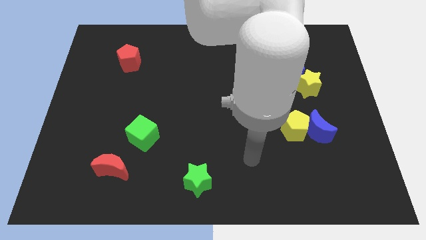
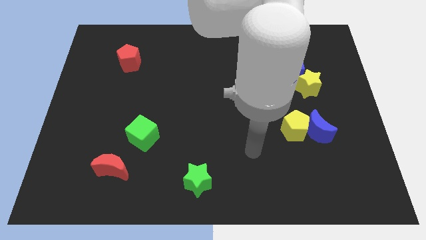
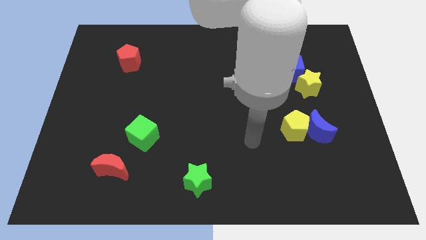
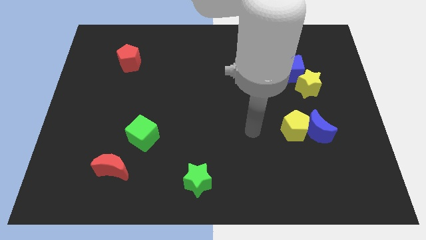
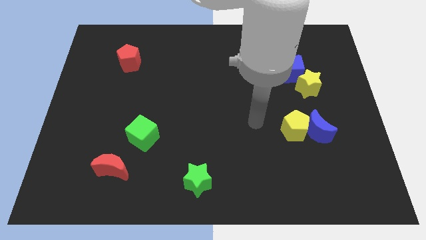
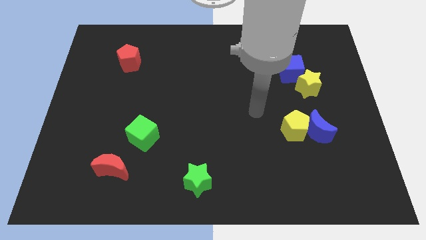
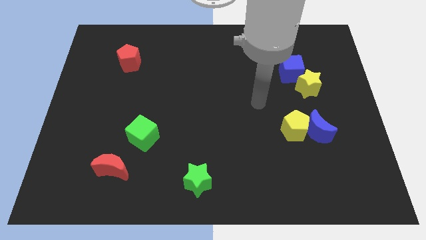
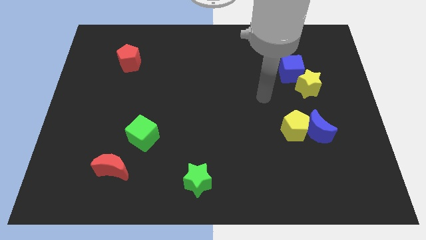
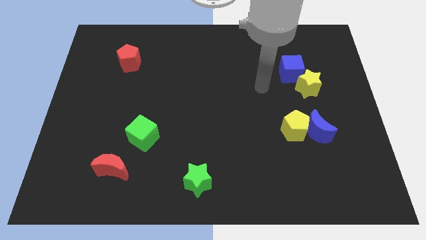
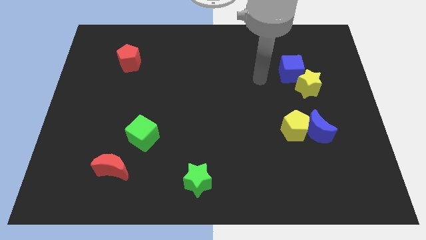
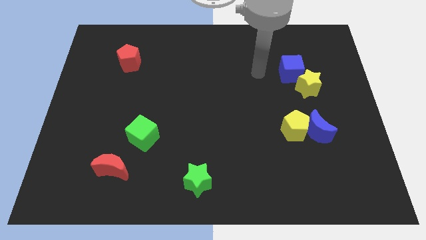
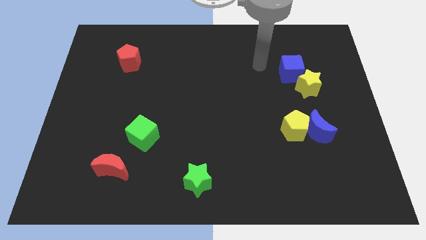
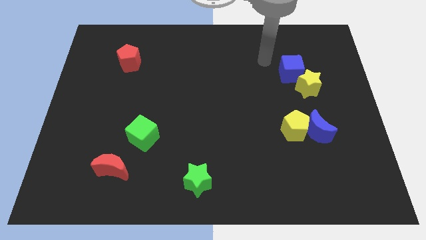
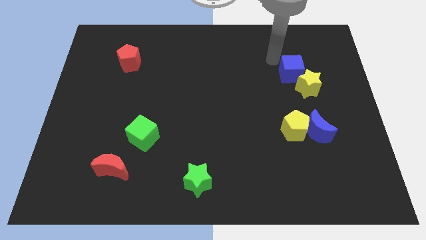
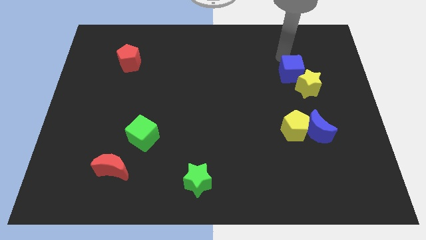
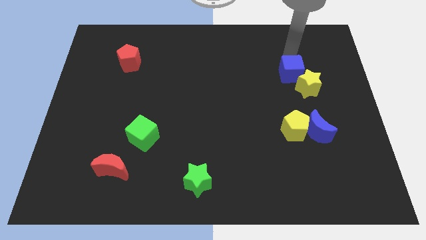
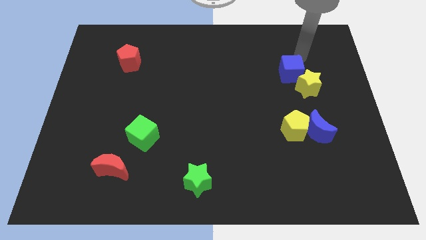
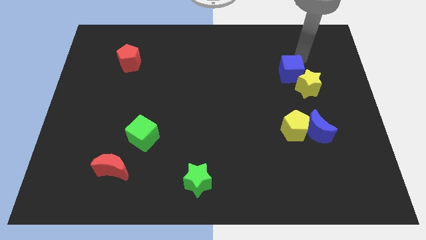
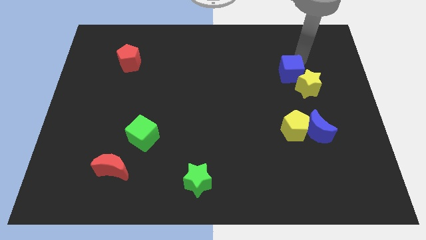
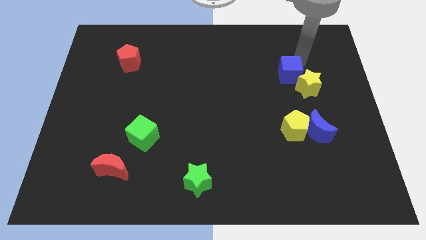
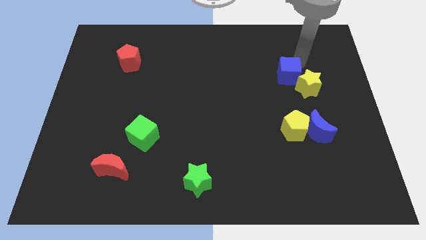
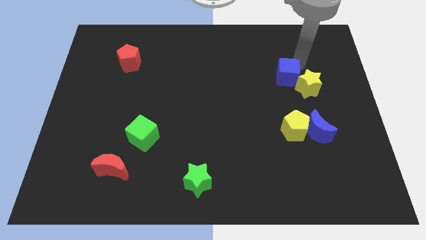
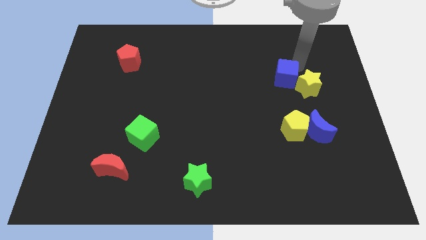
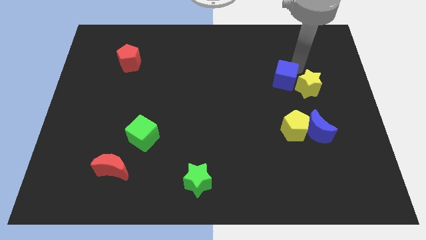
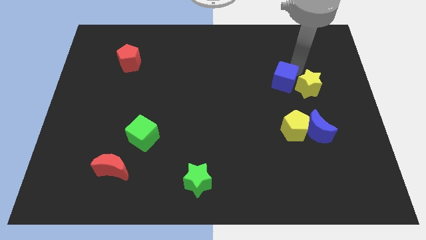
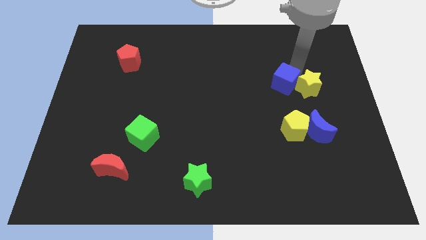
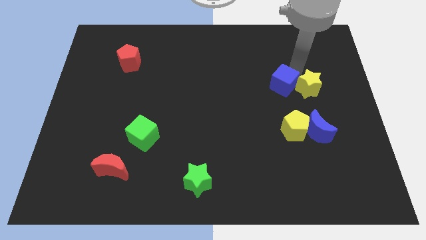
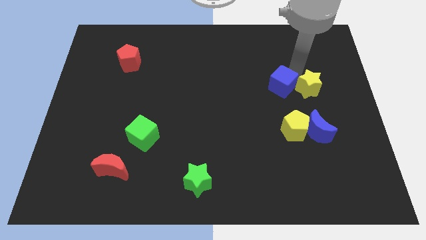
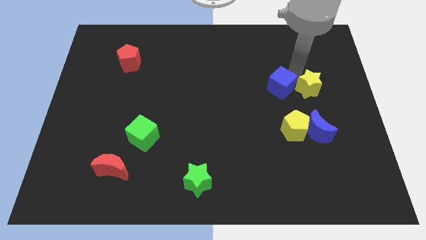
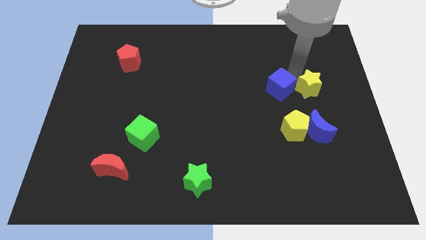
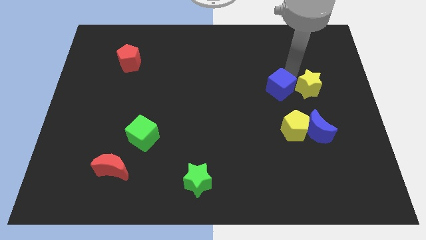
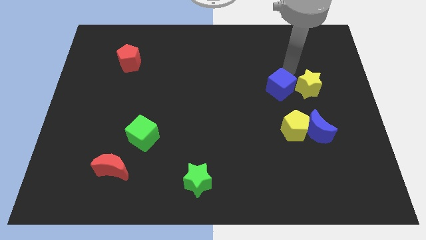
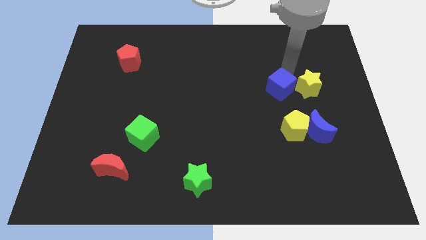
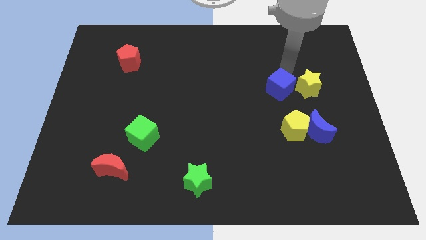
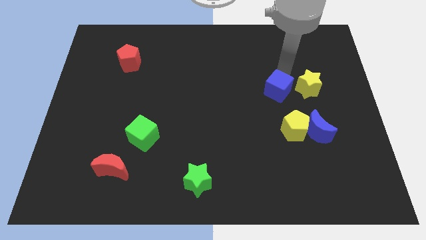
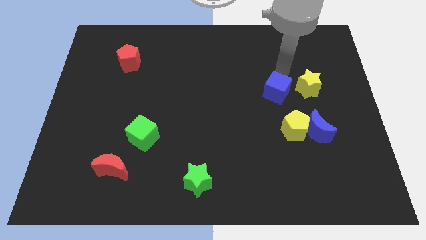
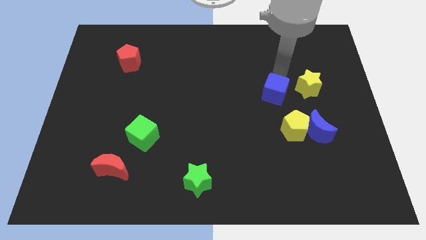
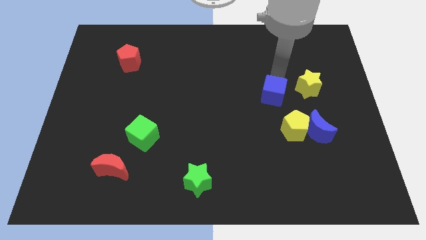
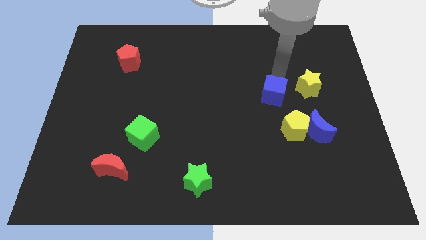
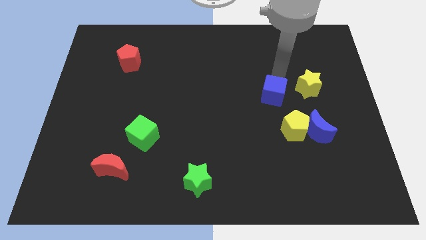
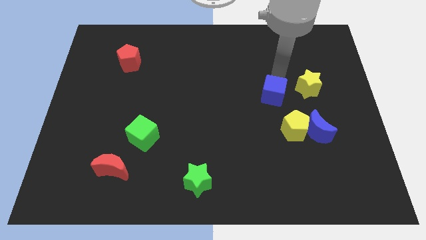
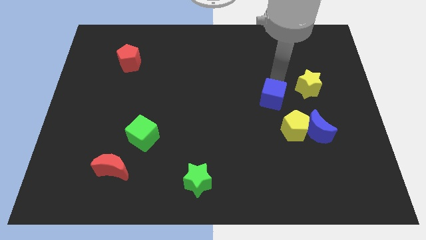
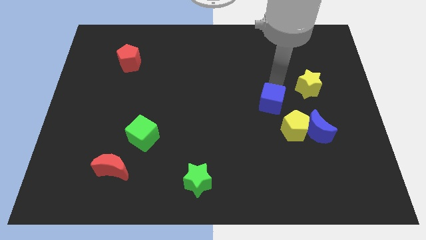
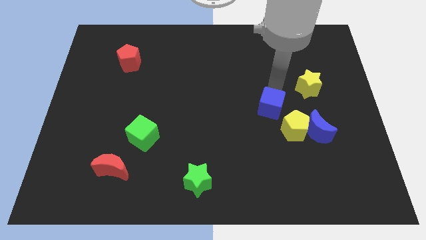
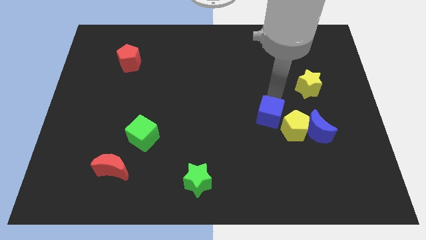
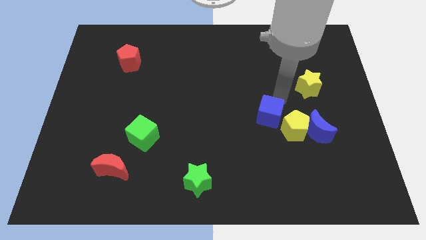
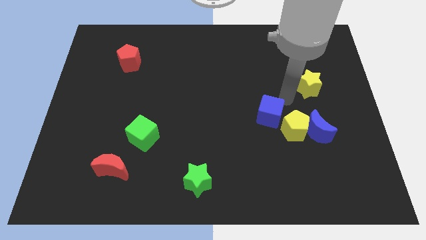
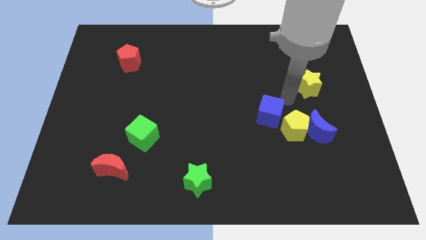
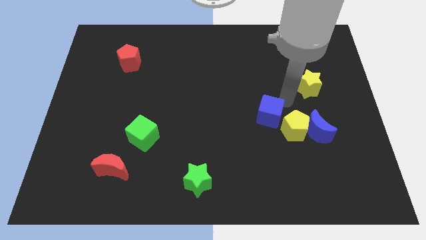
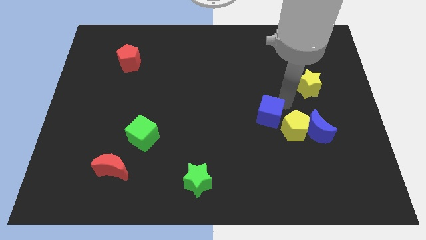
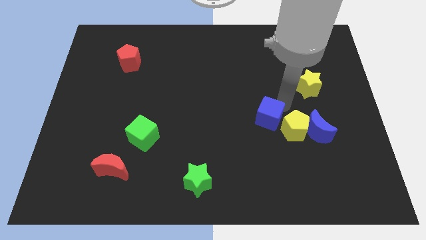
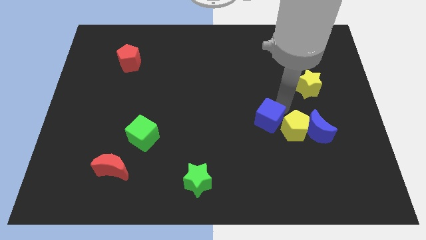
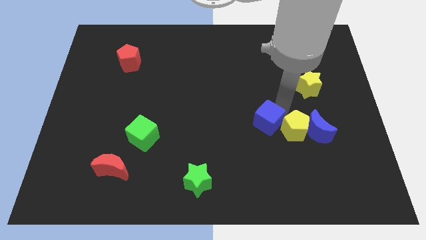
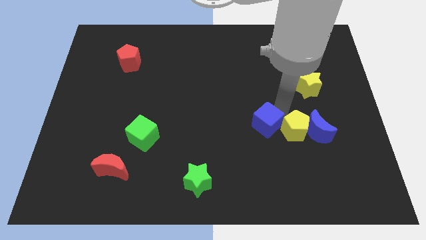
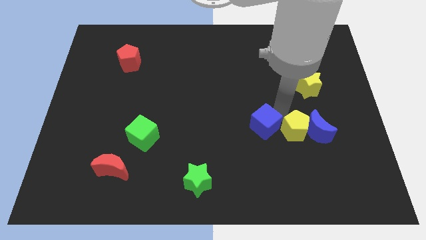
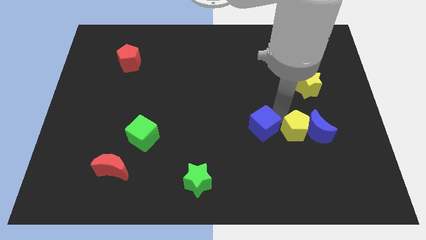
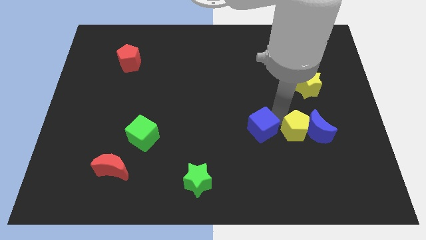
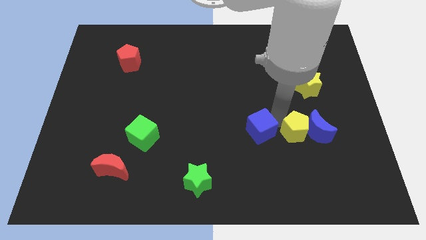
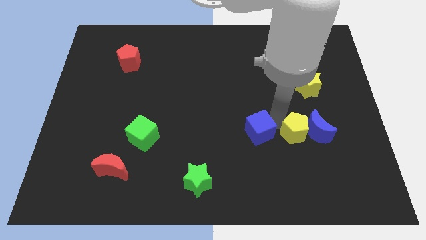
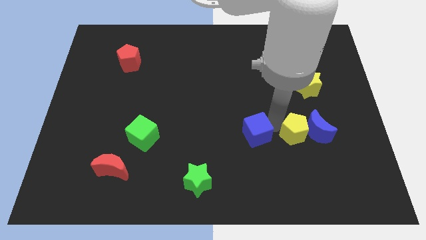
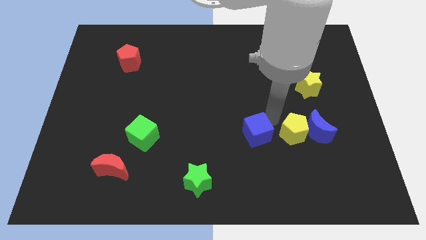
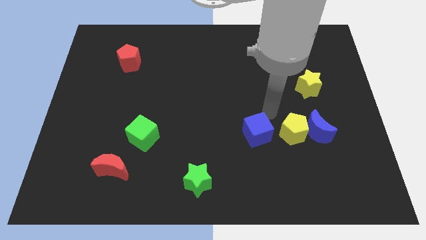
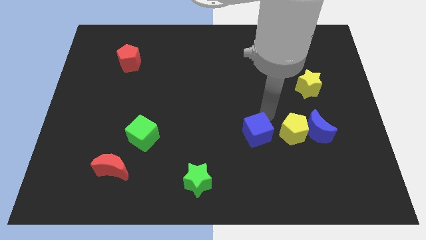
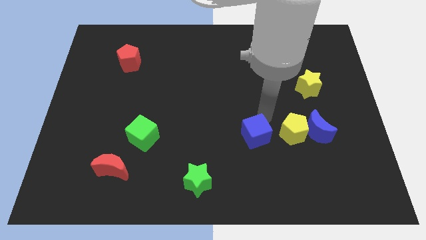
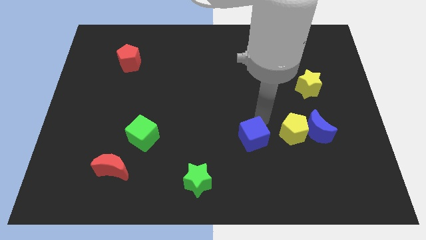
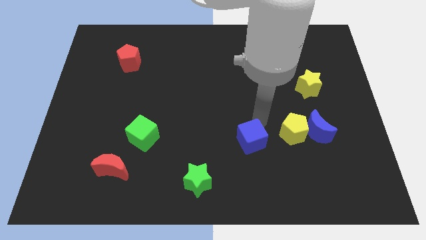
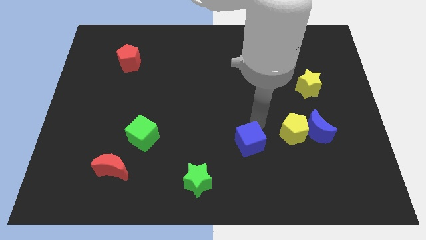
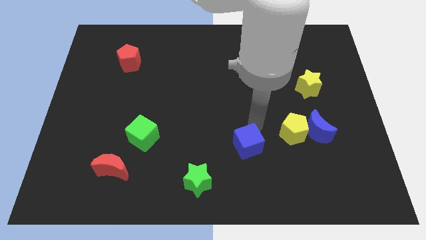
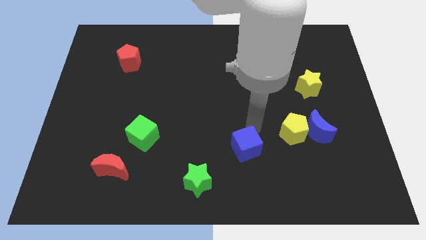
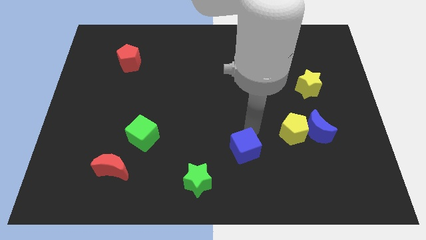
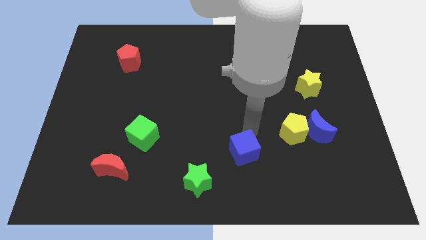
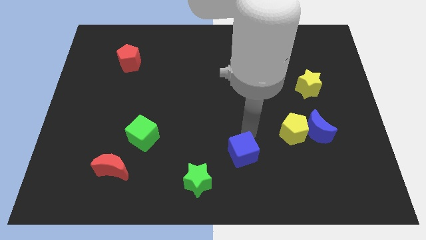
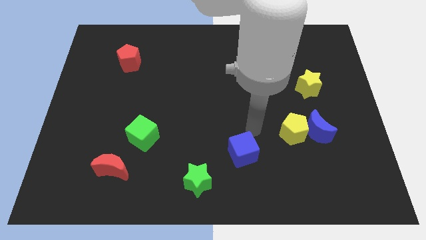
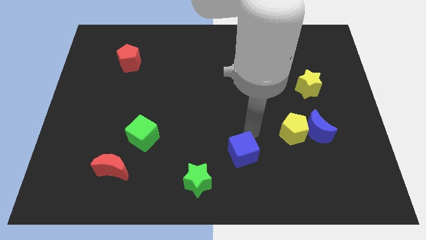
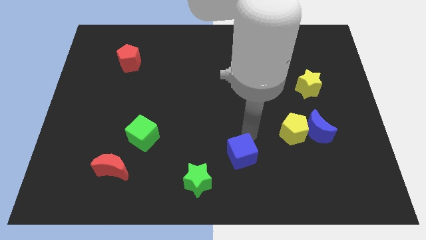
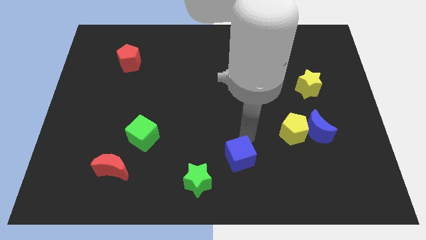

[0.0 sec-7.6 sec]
put the blue cube to the bottom
